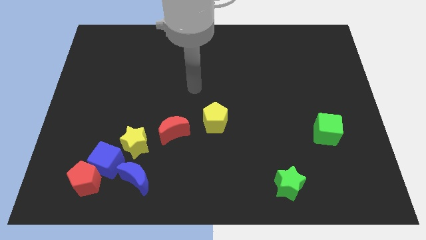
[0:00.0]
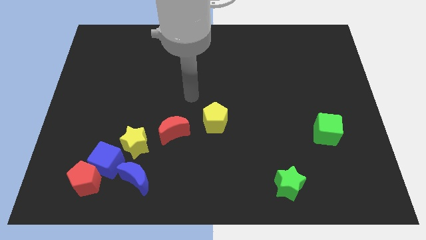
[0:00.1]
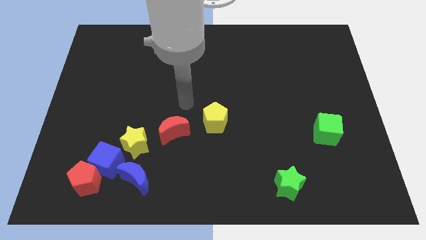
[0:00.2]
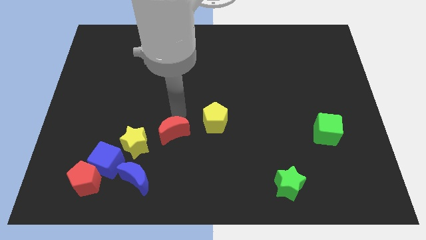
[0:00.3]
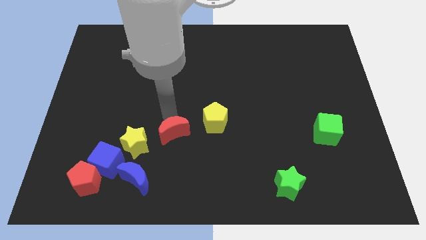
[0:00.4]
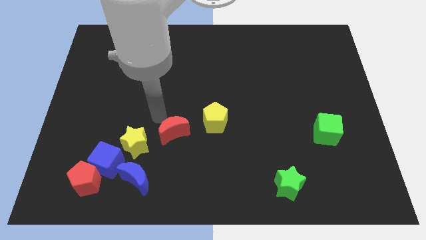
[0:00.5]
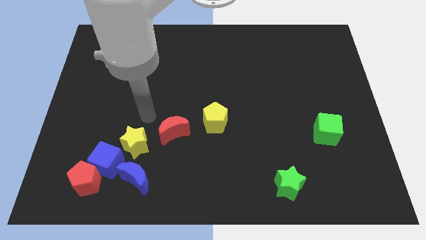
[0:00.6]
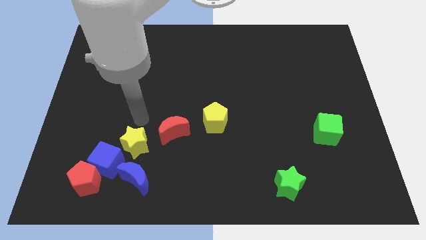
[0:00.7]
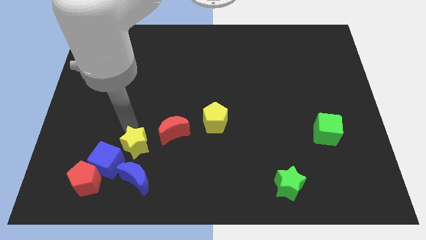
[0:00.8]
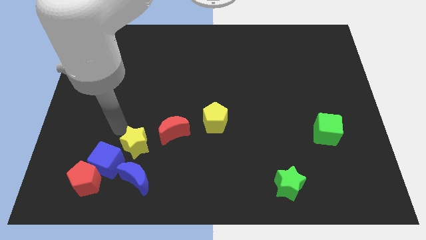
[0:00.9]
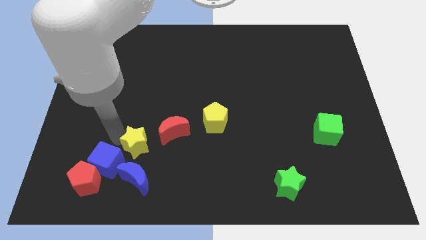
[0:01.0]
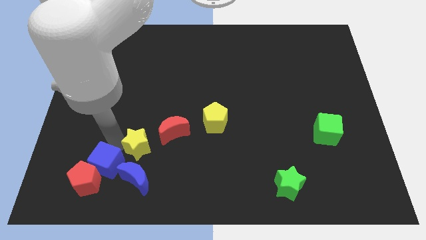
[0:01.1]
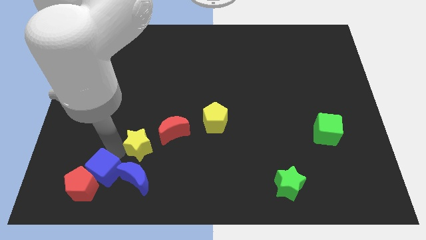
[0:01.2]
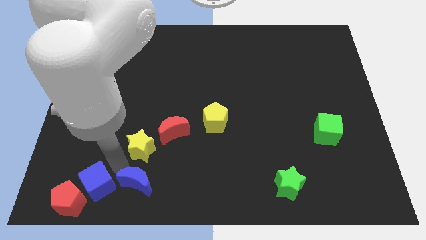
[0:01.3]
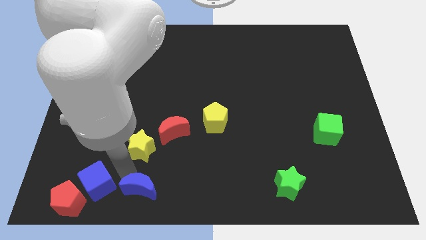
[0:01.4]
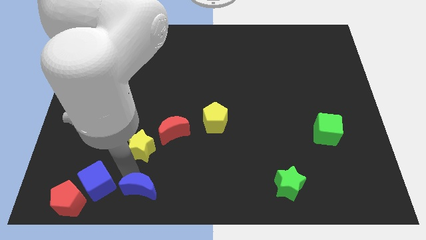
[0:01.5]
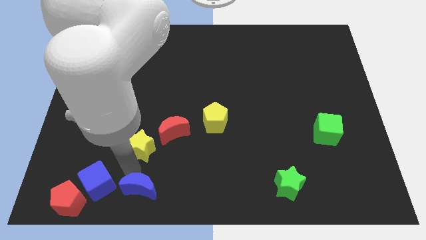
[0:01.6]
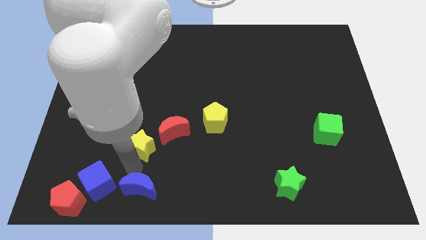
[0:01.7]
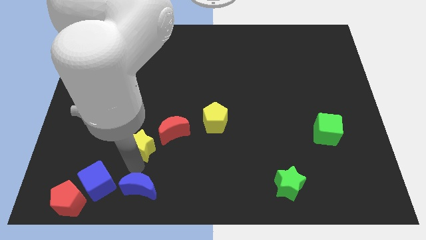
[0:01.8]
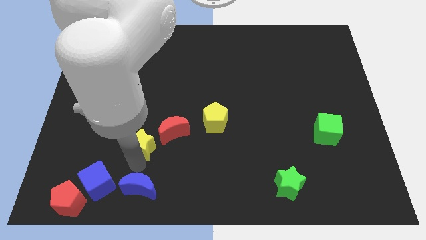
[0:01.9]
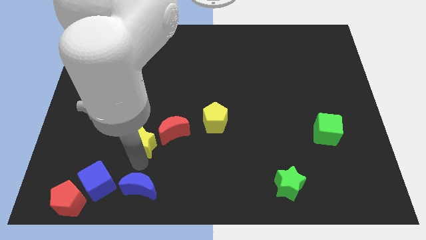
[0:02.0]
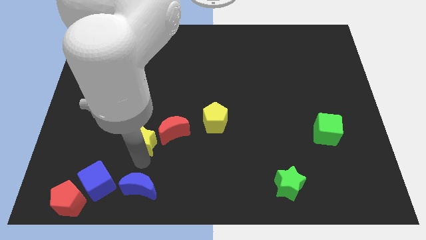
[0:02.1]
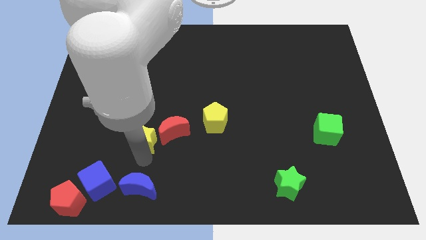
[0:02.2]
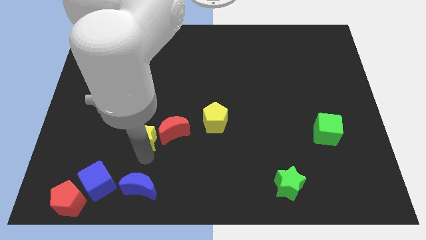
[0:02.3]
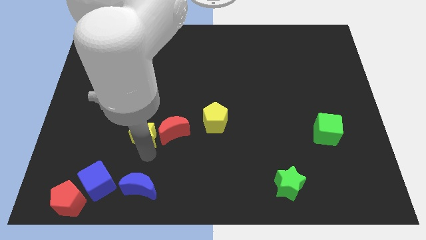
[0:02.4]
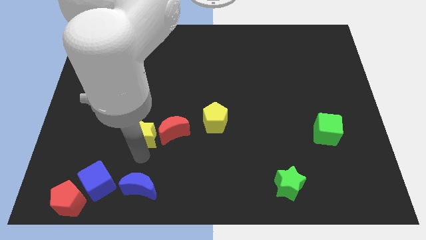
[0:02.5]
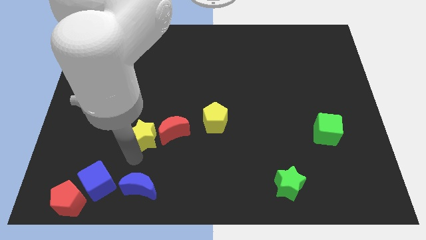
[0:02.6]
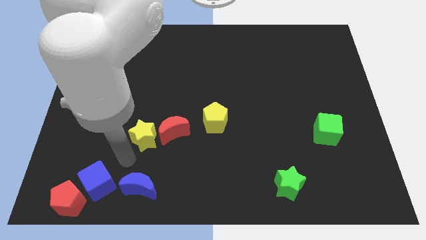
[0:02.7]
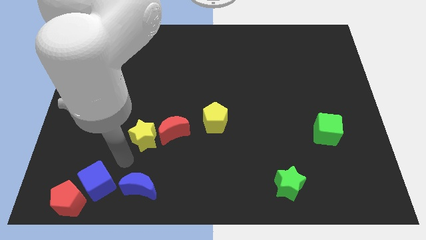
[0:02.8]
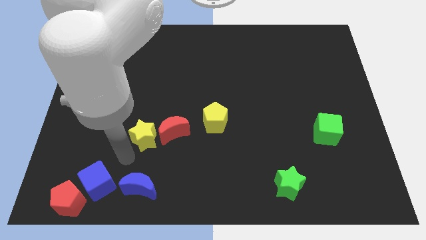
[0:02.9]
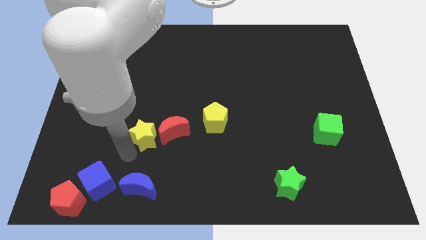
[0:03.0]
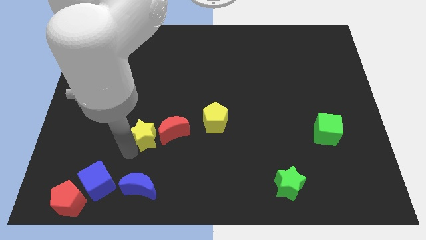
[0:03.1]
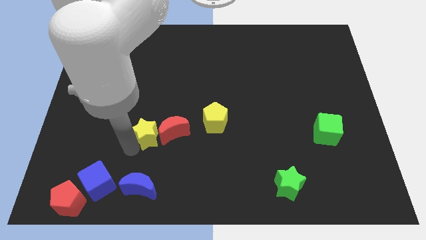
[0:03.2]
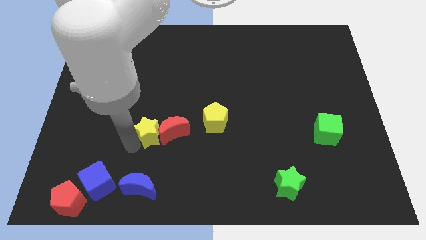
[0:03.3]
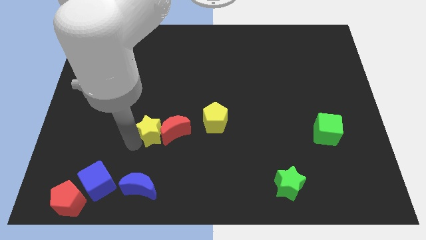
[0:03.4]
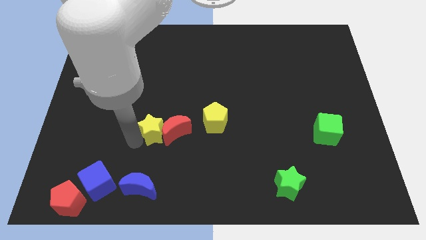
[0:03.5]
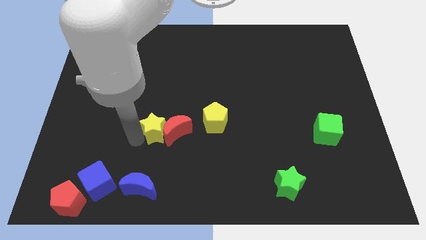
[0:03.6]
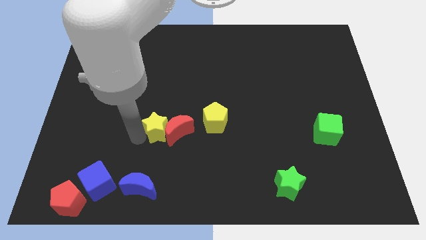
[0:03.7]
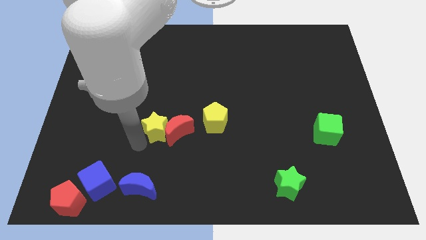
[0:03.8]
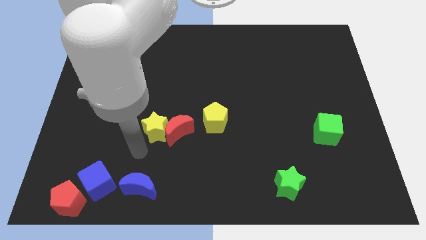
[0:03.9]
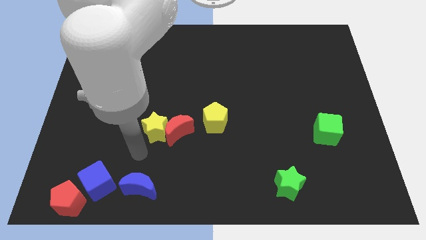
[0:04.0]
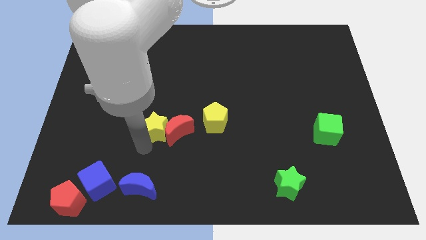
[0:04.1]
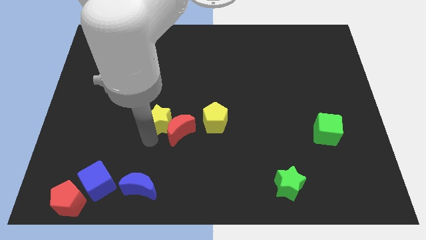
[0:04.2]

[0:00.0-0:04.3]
slightly push the yellow star upwards and to the right

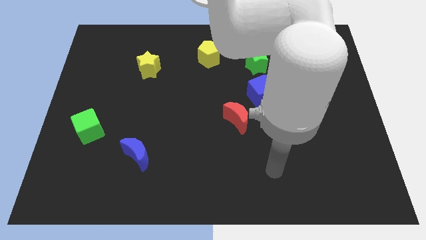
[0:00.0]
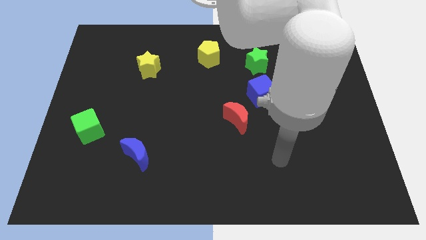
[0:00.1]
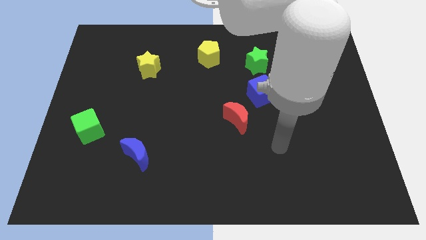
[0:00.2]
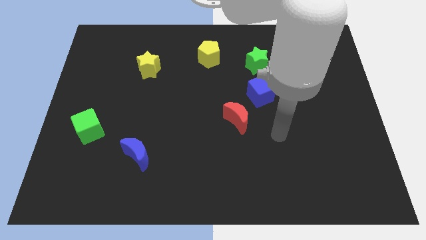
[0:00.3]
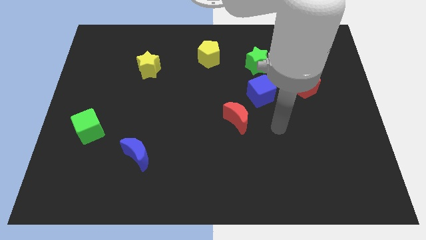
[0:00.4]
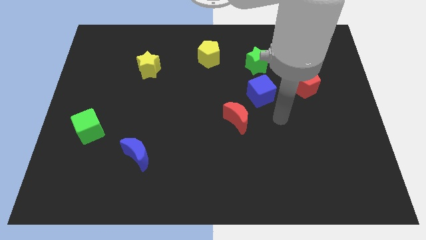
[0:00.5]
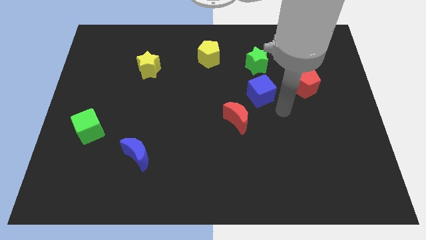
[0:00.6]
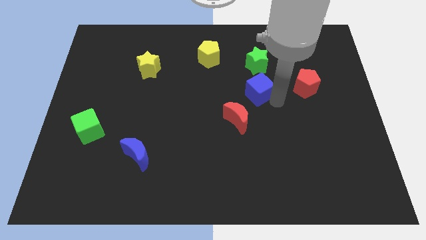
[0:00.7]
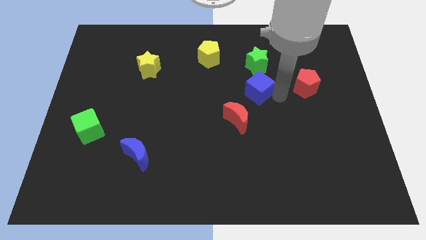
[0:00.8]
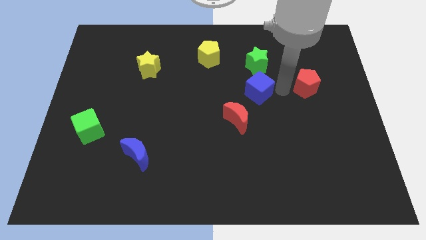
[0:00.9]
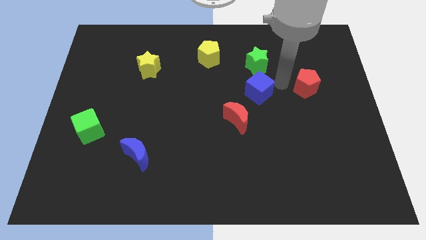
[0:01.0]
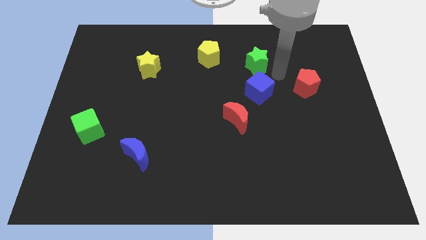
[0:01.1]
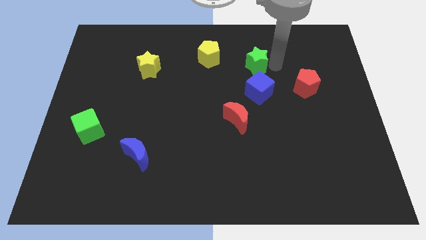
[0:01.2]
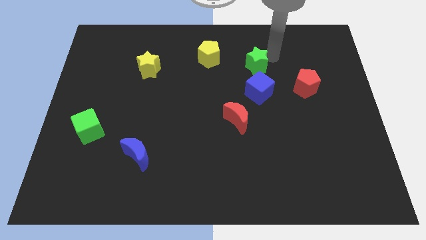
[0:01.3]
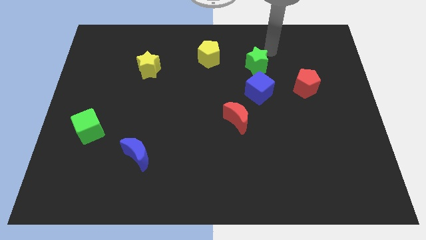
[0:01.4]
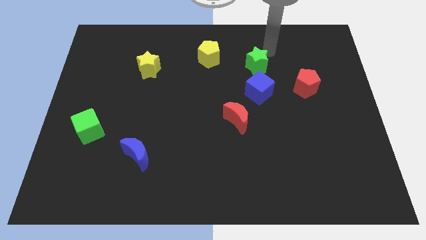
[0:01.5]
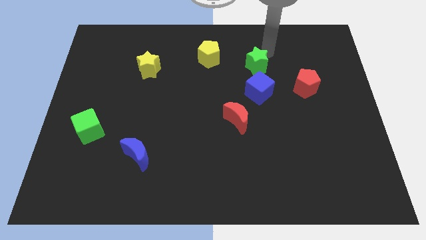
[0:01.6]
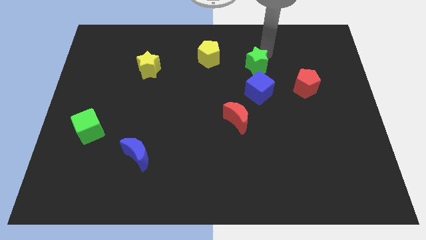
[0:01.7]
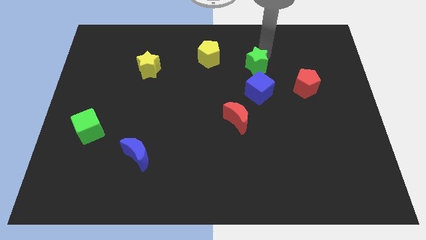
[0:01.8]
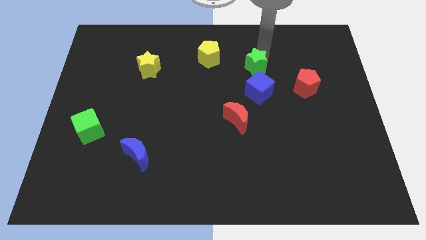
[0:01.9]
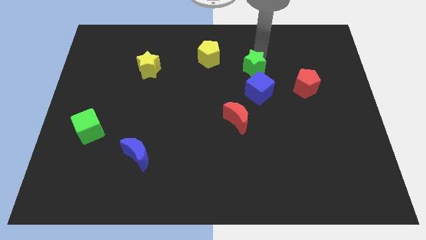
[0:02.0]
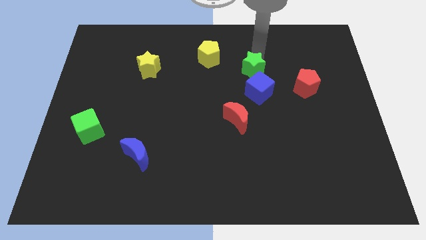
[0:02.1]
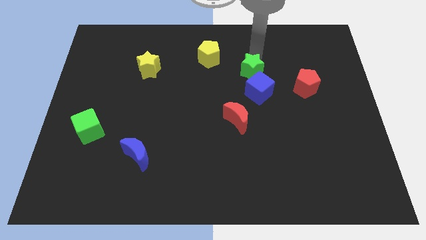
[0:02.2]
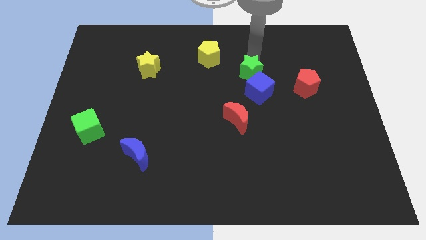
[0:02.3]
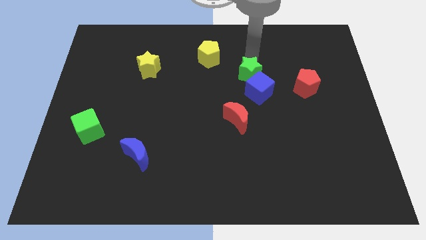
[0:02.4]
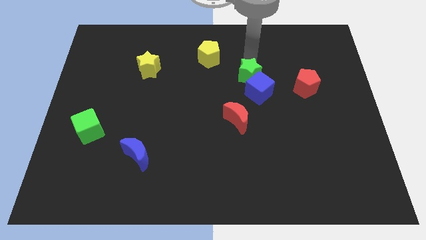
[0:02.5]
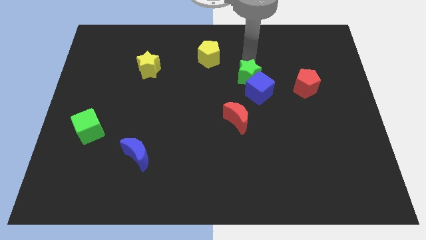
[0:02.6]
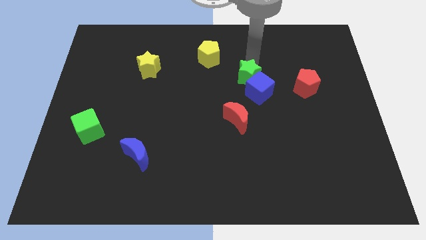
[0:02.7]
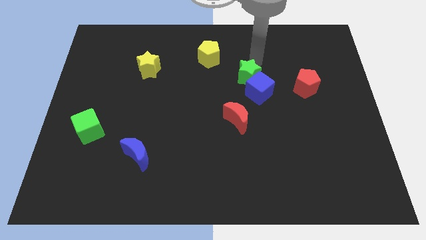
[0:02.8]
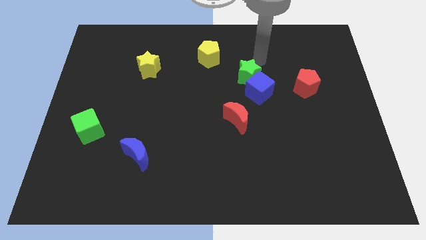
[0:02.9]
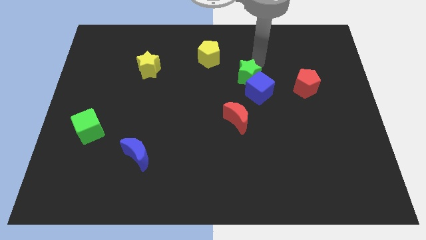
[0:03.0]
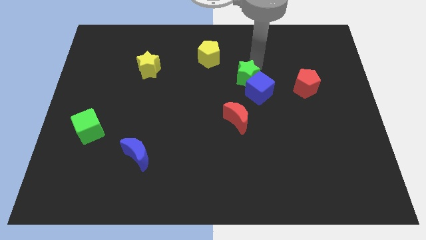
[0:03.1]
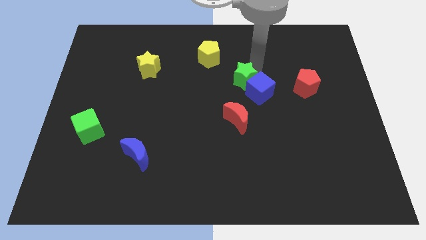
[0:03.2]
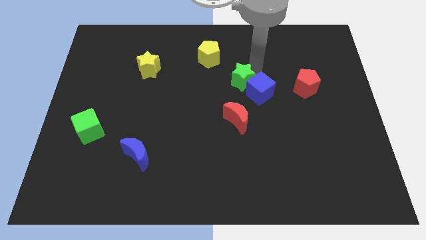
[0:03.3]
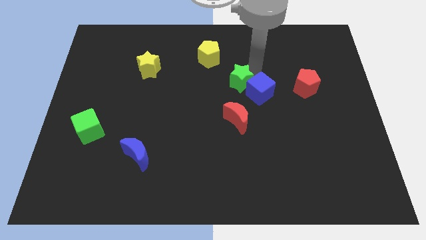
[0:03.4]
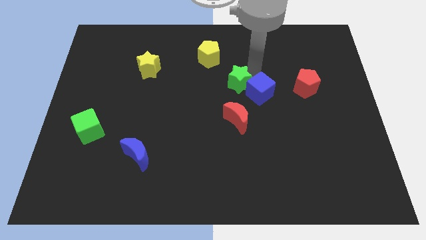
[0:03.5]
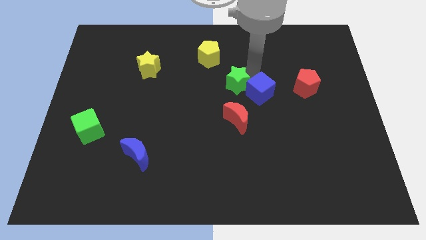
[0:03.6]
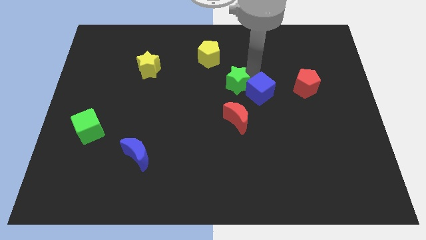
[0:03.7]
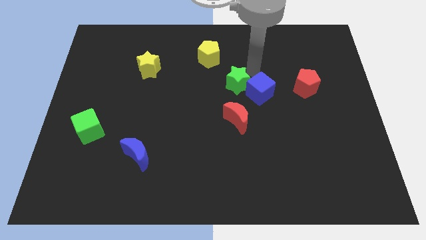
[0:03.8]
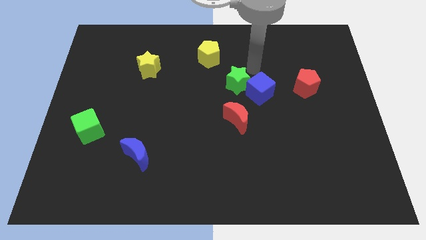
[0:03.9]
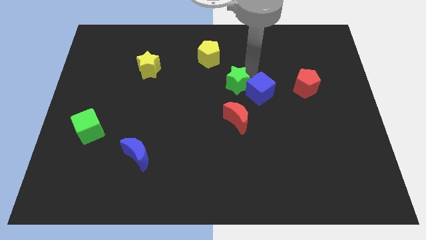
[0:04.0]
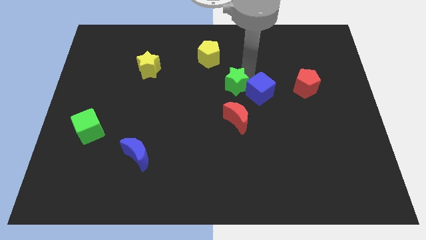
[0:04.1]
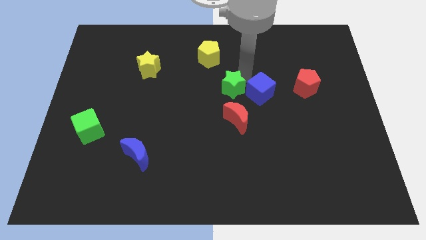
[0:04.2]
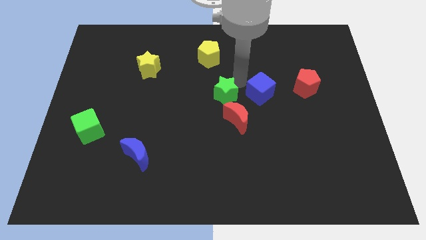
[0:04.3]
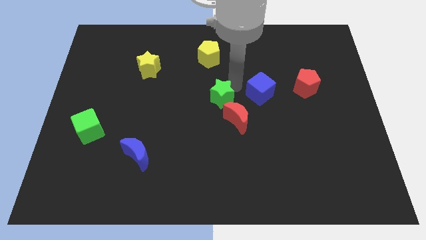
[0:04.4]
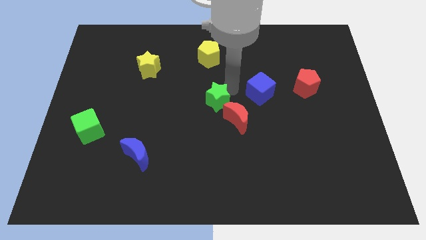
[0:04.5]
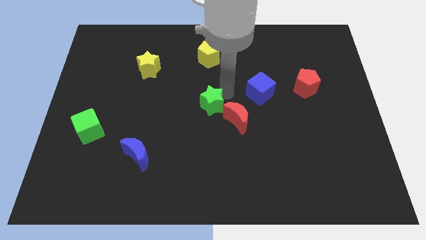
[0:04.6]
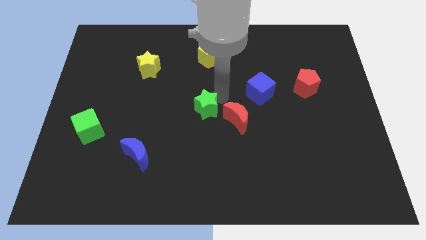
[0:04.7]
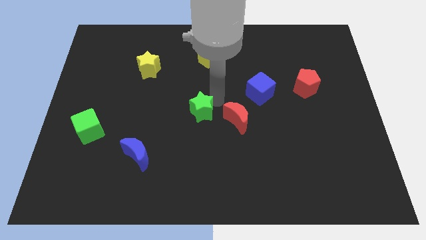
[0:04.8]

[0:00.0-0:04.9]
push the green star downwards and left
